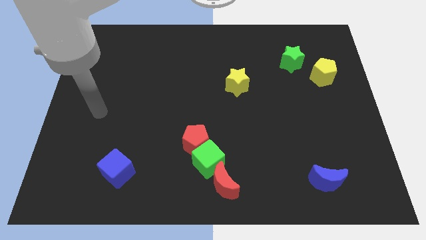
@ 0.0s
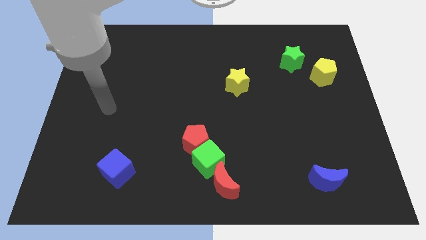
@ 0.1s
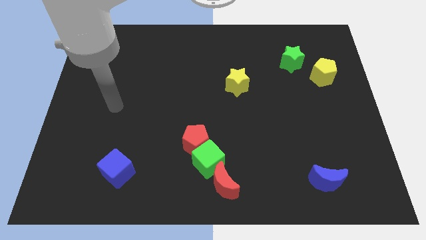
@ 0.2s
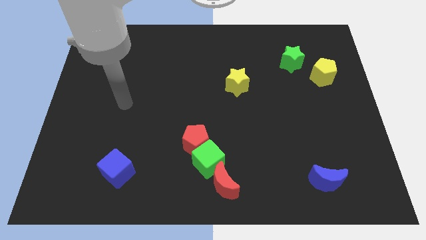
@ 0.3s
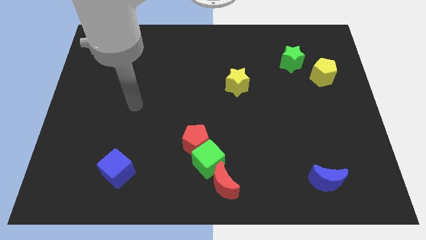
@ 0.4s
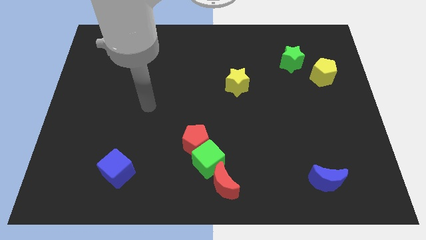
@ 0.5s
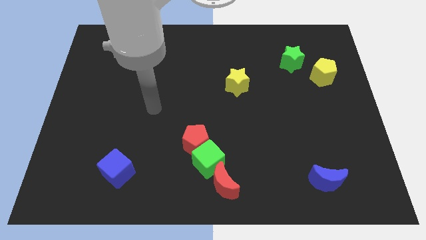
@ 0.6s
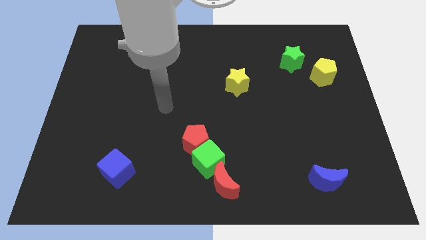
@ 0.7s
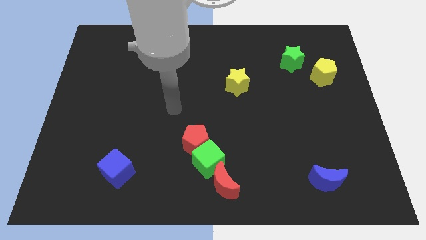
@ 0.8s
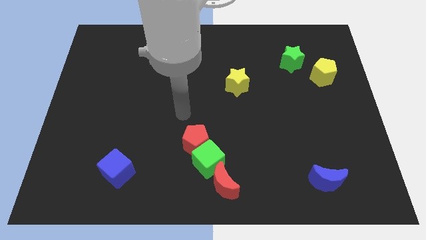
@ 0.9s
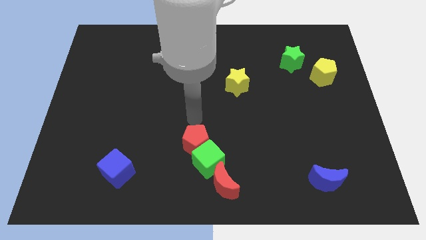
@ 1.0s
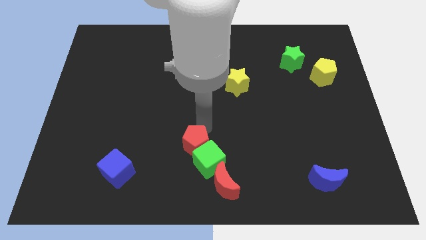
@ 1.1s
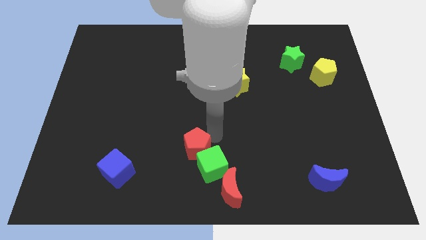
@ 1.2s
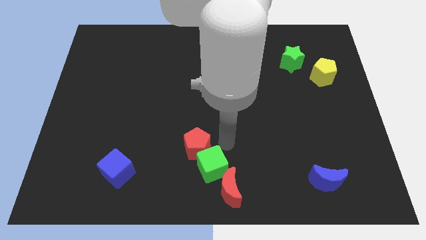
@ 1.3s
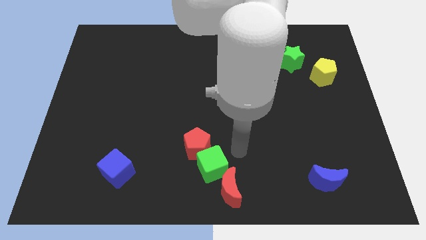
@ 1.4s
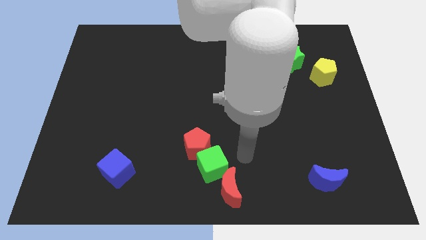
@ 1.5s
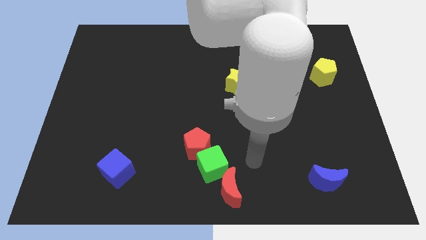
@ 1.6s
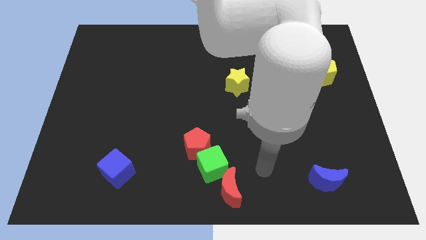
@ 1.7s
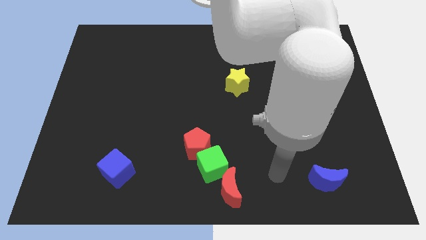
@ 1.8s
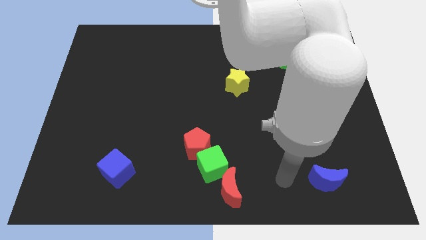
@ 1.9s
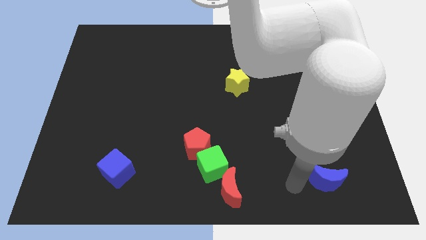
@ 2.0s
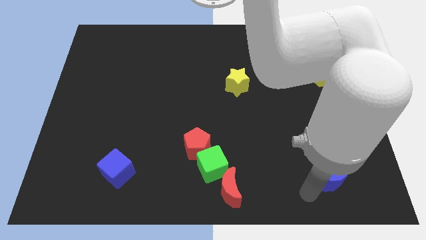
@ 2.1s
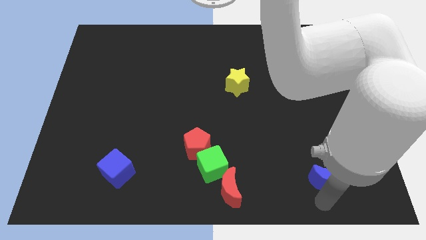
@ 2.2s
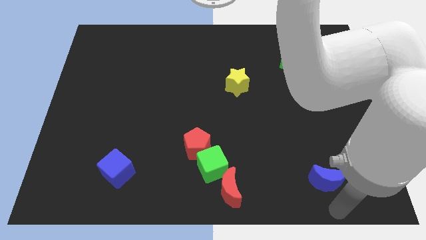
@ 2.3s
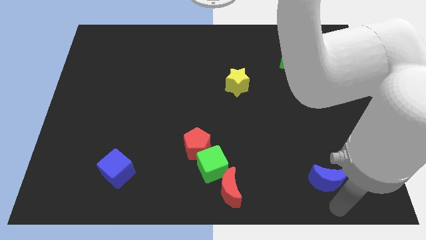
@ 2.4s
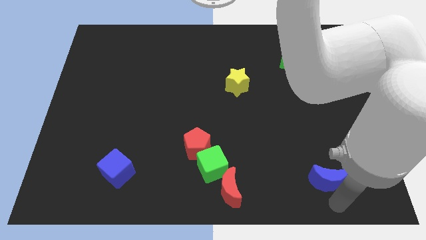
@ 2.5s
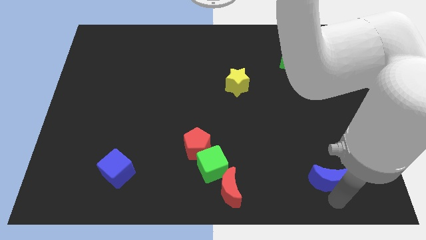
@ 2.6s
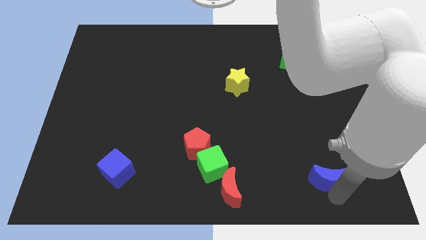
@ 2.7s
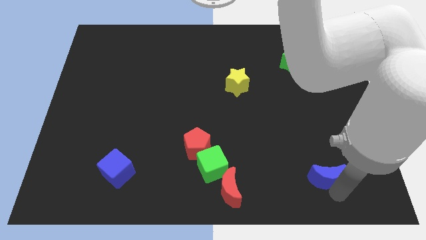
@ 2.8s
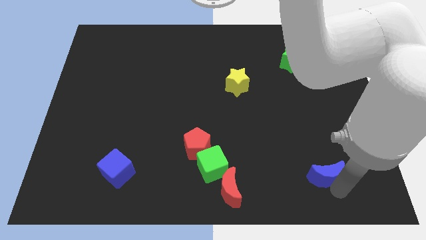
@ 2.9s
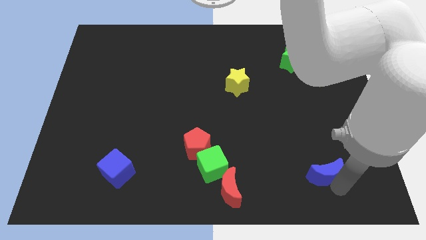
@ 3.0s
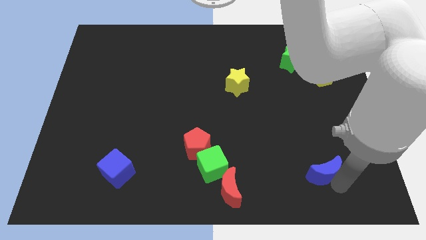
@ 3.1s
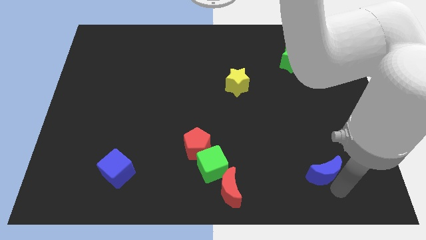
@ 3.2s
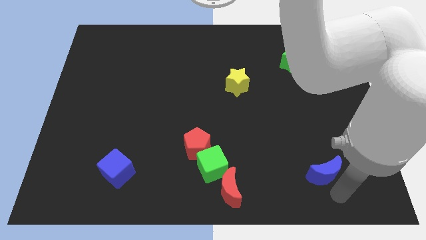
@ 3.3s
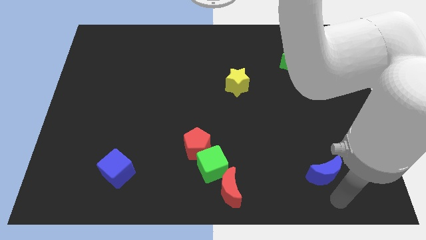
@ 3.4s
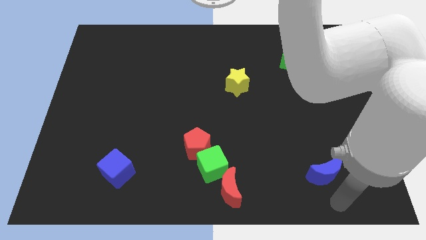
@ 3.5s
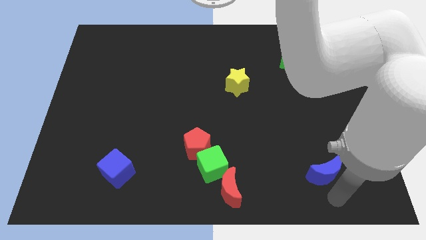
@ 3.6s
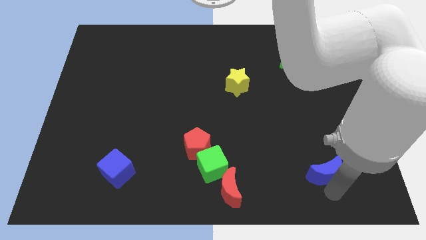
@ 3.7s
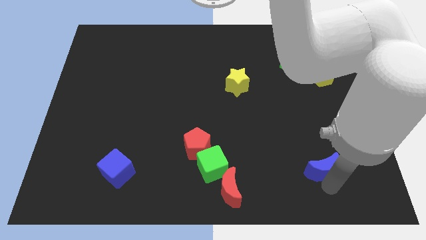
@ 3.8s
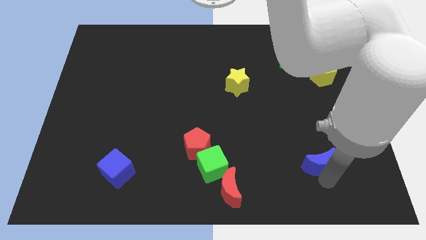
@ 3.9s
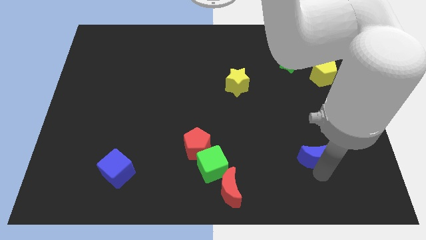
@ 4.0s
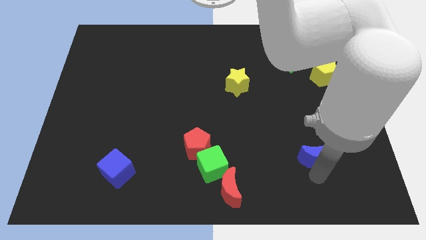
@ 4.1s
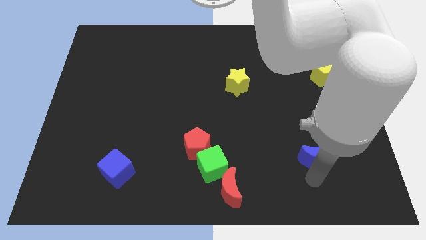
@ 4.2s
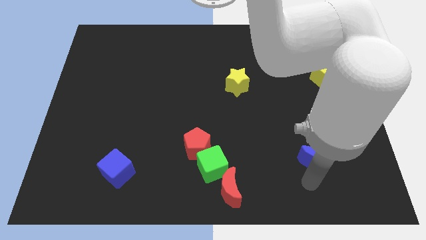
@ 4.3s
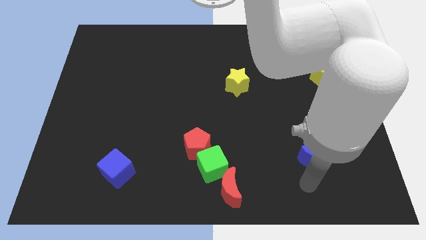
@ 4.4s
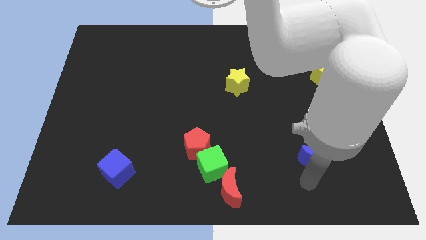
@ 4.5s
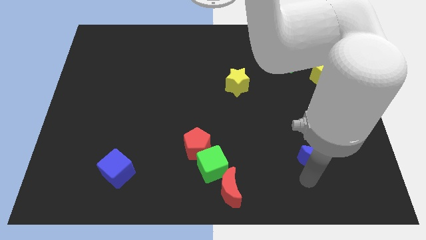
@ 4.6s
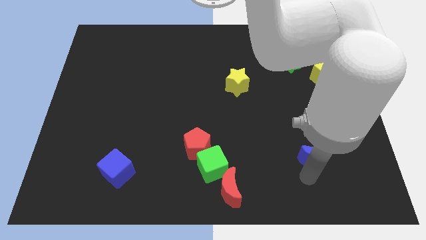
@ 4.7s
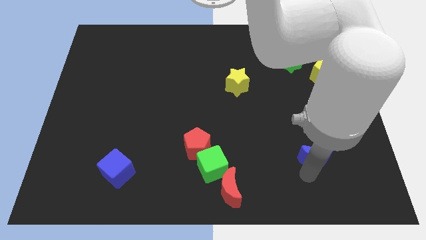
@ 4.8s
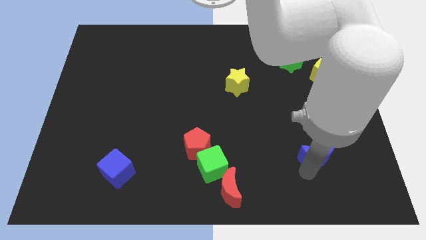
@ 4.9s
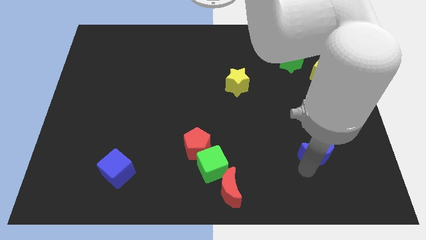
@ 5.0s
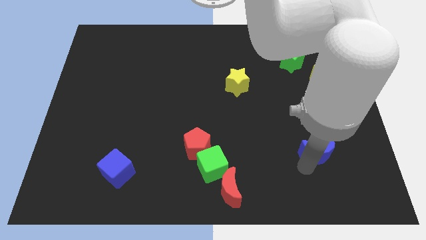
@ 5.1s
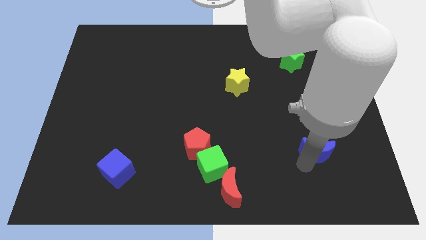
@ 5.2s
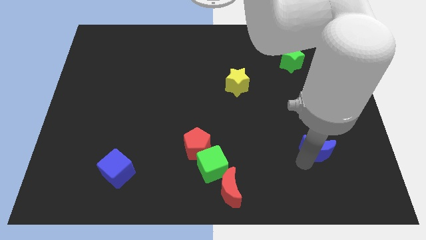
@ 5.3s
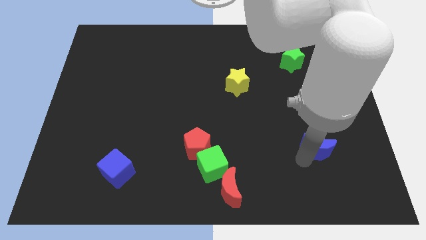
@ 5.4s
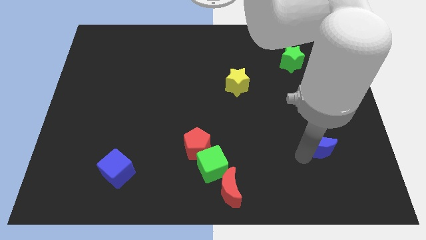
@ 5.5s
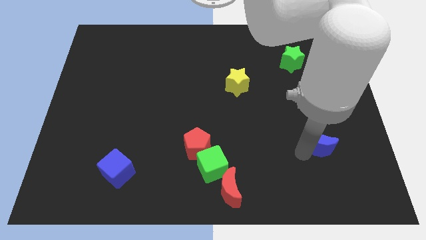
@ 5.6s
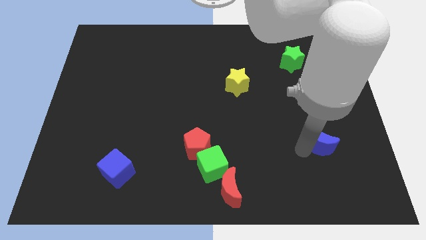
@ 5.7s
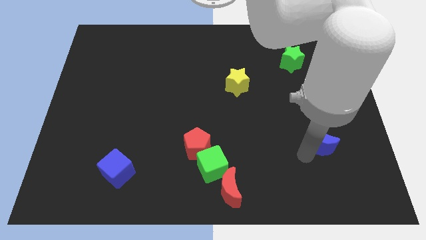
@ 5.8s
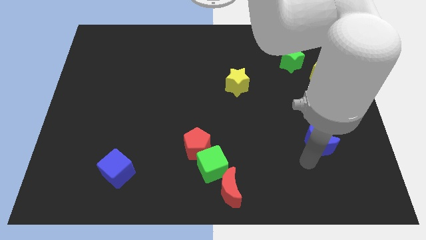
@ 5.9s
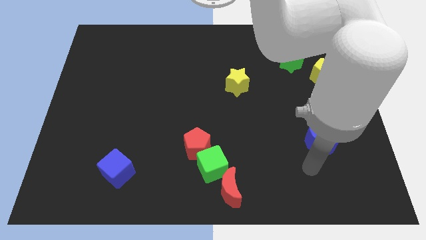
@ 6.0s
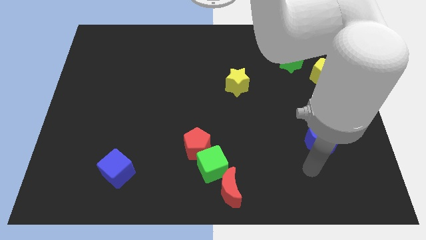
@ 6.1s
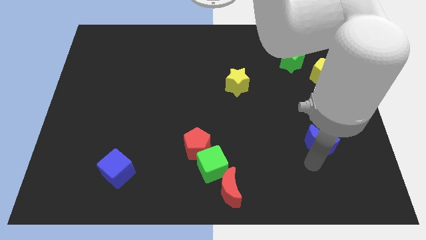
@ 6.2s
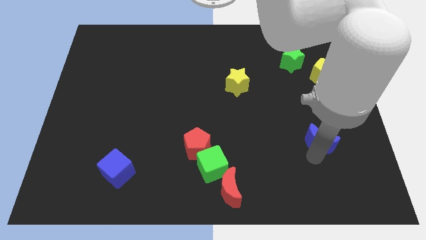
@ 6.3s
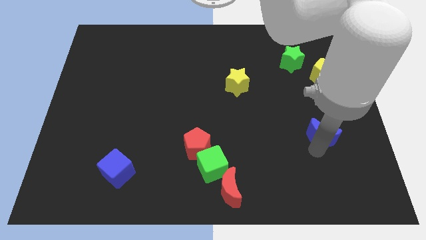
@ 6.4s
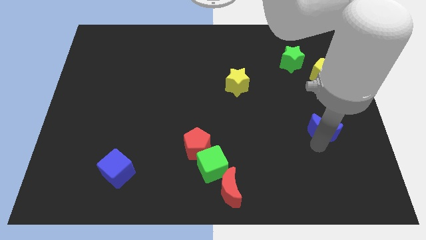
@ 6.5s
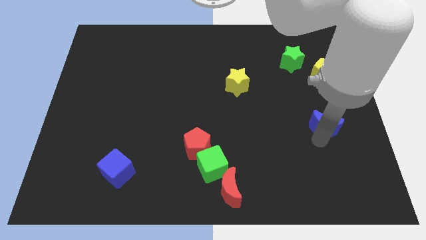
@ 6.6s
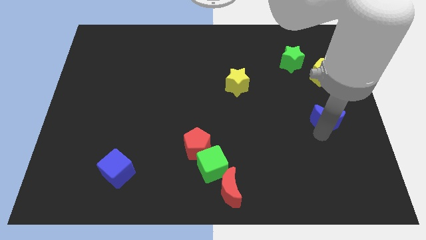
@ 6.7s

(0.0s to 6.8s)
move the blue moon to the bottom of the yellow pentagon

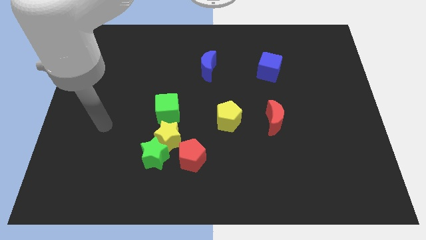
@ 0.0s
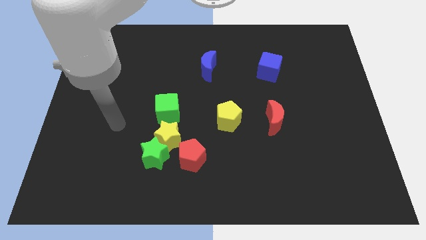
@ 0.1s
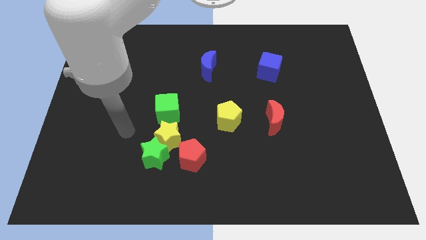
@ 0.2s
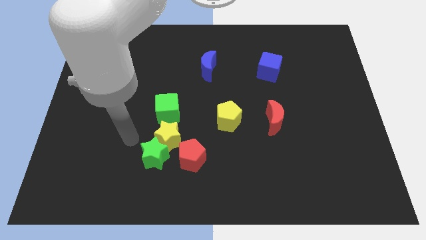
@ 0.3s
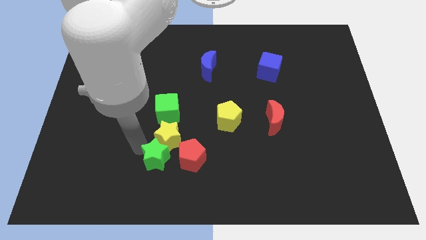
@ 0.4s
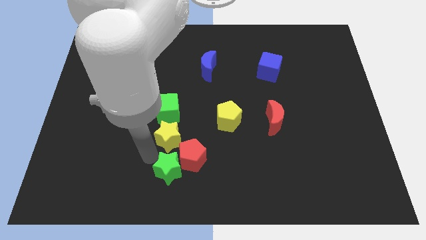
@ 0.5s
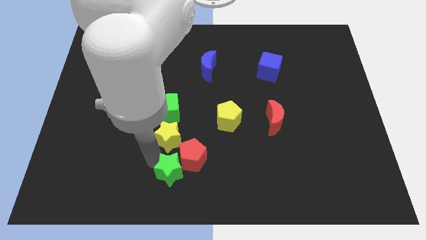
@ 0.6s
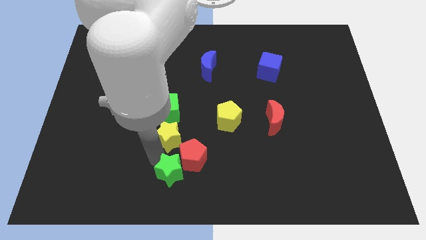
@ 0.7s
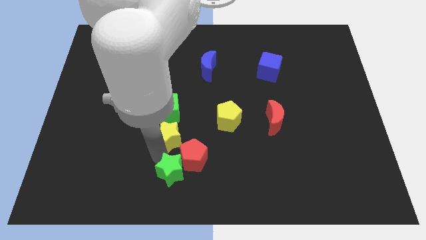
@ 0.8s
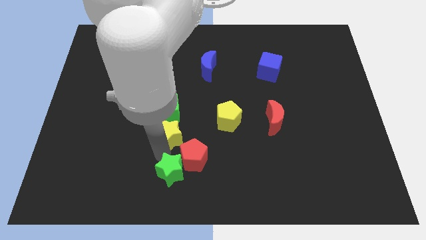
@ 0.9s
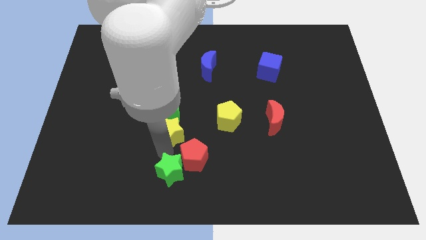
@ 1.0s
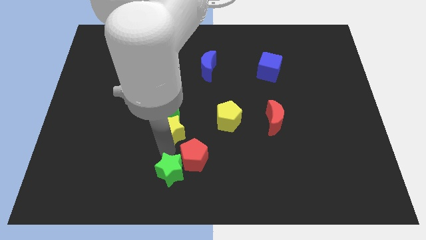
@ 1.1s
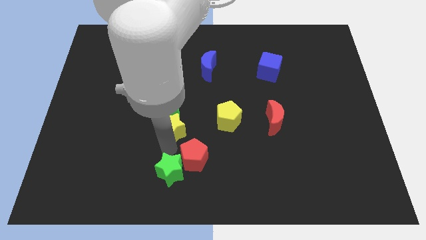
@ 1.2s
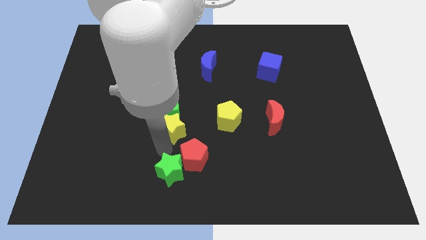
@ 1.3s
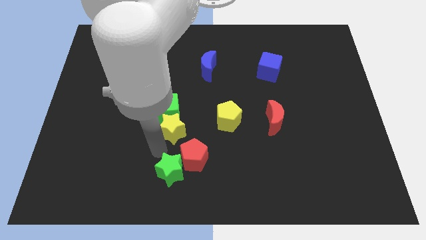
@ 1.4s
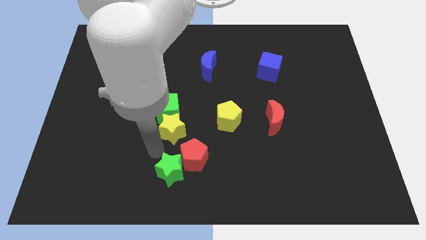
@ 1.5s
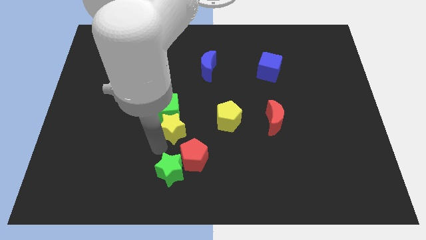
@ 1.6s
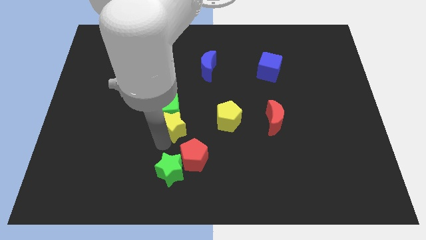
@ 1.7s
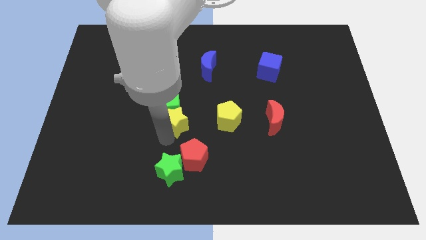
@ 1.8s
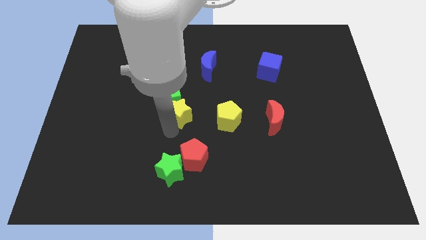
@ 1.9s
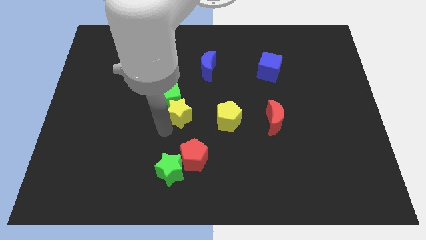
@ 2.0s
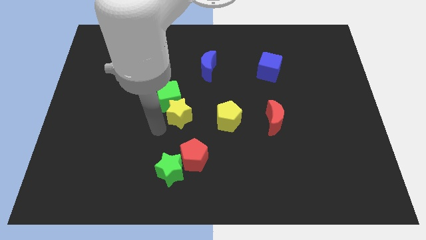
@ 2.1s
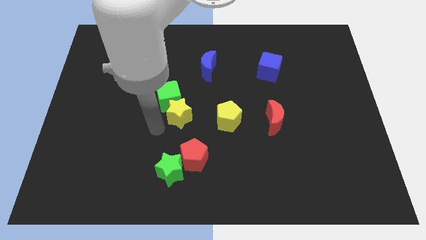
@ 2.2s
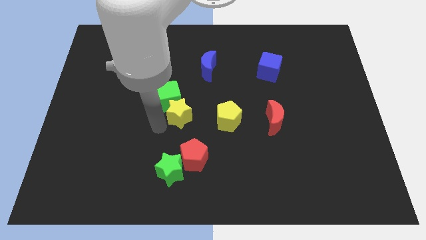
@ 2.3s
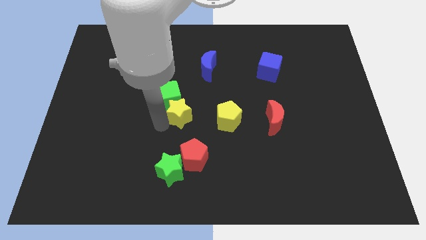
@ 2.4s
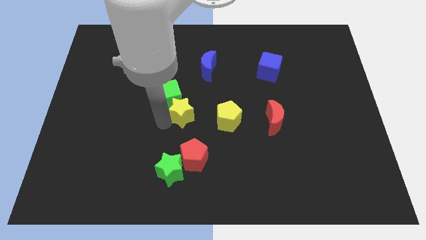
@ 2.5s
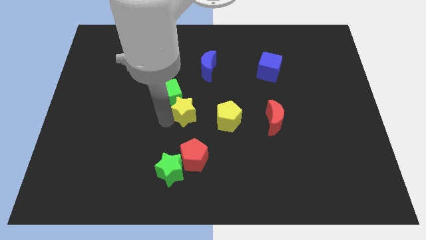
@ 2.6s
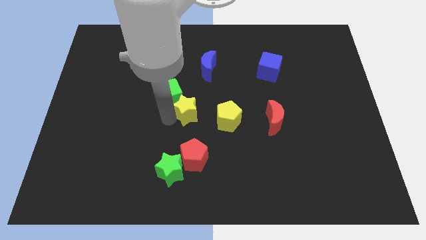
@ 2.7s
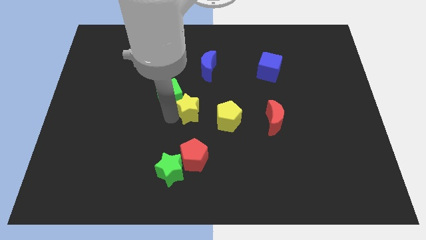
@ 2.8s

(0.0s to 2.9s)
put the yellow star diagonally up and to the left of the yellow pentagon
